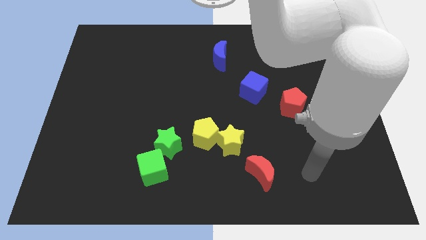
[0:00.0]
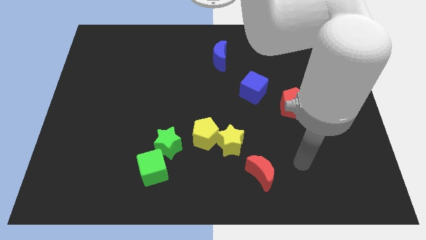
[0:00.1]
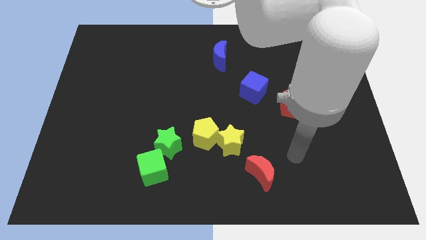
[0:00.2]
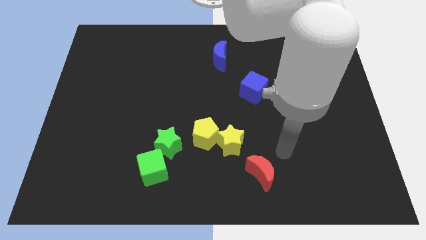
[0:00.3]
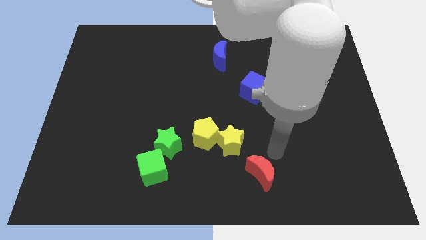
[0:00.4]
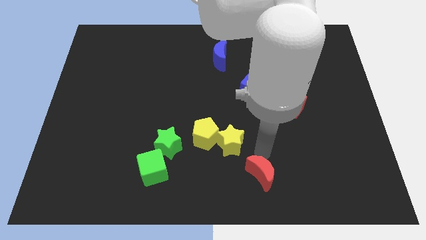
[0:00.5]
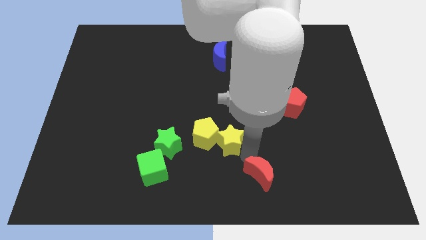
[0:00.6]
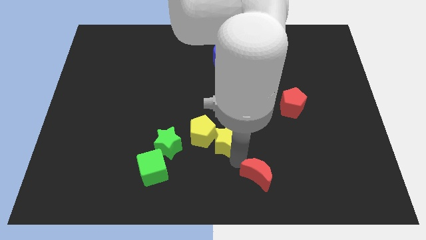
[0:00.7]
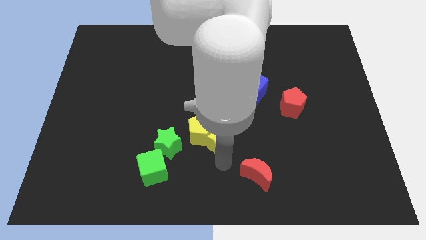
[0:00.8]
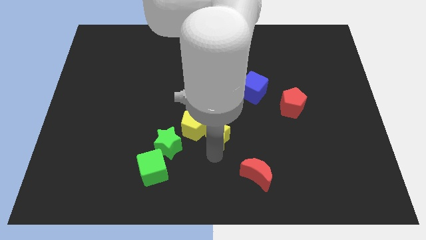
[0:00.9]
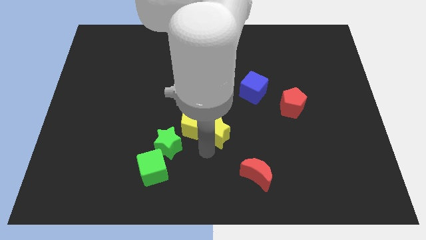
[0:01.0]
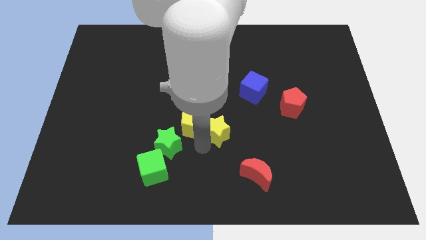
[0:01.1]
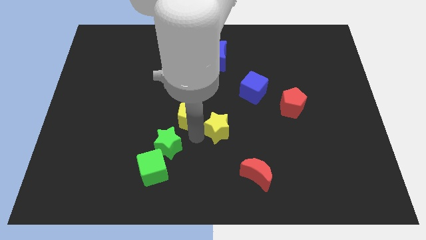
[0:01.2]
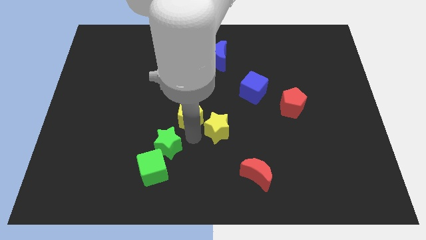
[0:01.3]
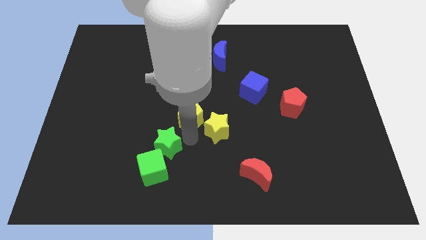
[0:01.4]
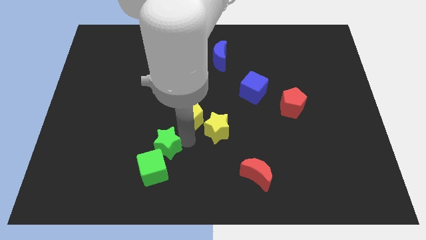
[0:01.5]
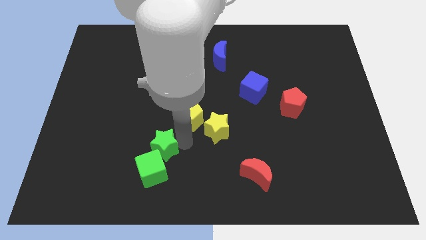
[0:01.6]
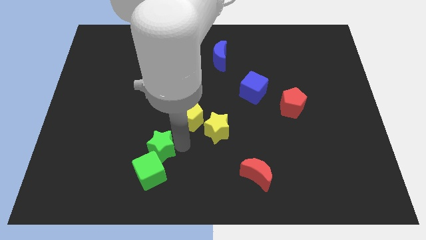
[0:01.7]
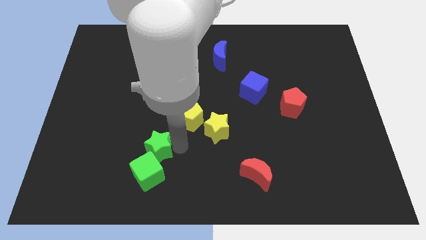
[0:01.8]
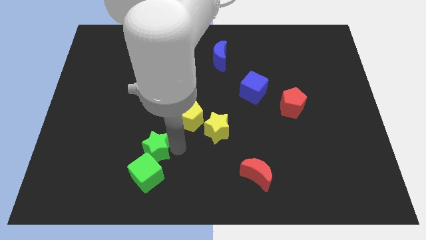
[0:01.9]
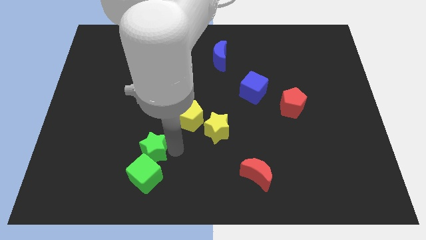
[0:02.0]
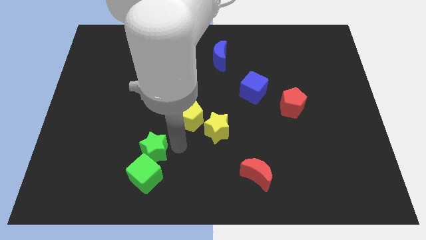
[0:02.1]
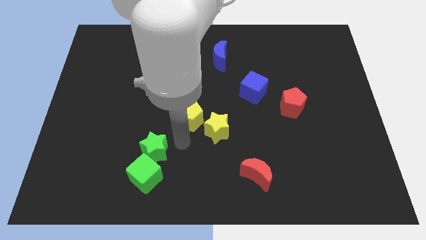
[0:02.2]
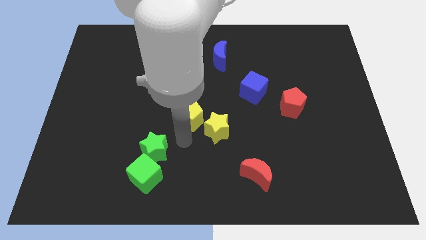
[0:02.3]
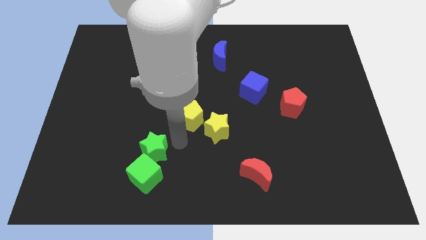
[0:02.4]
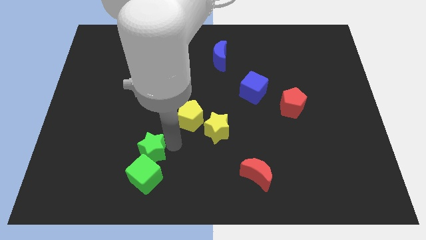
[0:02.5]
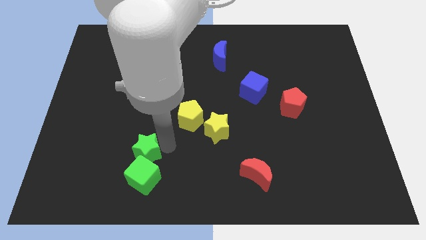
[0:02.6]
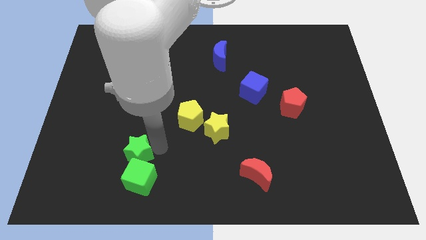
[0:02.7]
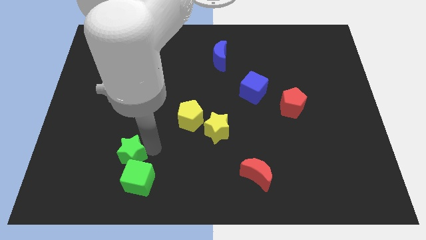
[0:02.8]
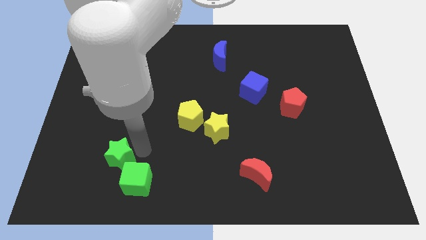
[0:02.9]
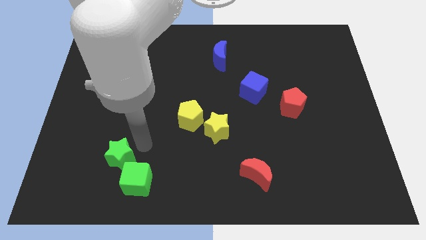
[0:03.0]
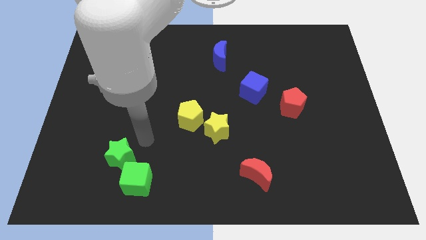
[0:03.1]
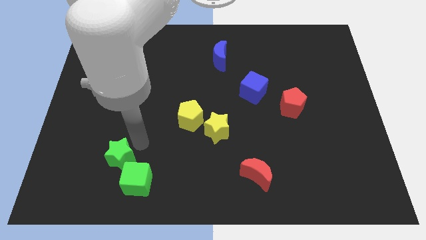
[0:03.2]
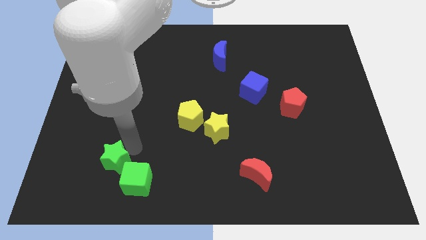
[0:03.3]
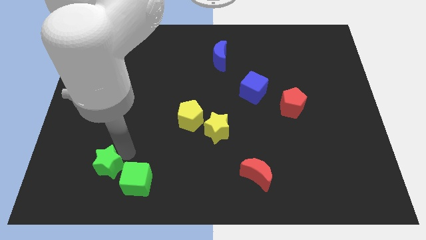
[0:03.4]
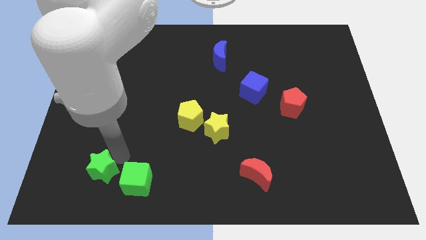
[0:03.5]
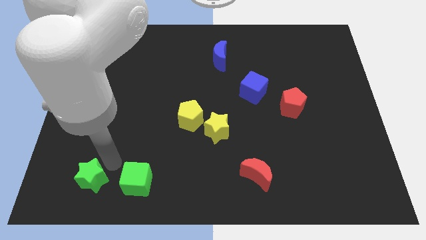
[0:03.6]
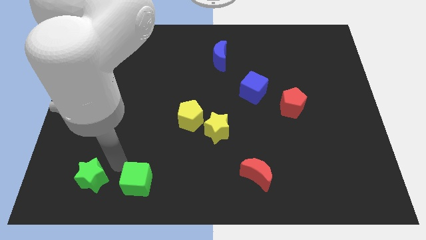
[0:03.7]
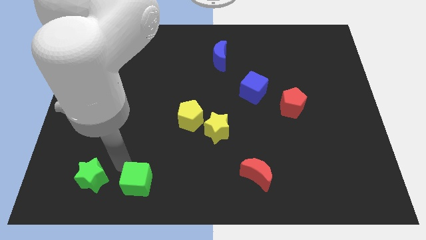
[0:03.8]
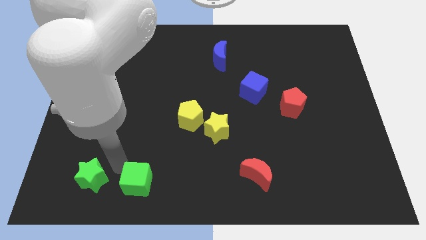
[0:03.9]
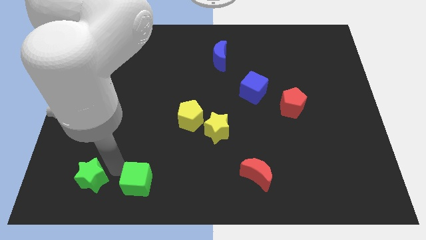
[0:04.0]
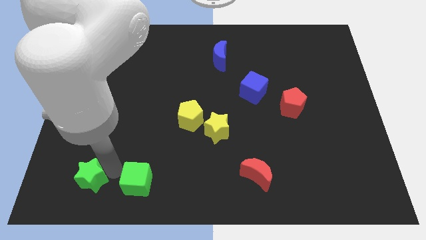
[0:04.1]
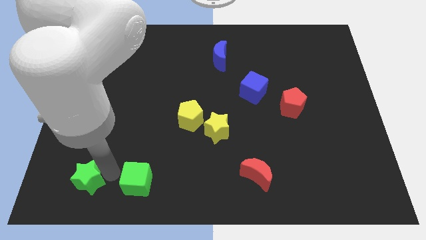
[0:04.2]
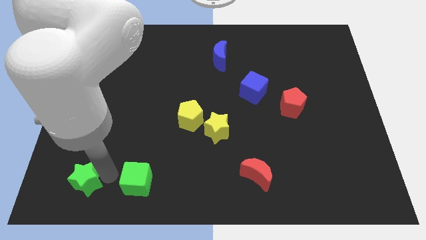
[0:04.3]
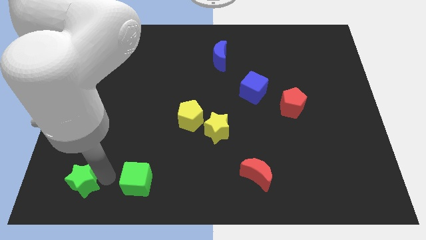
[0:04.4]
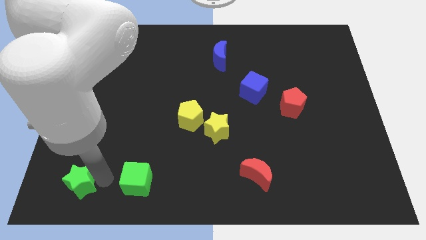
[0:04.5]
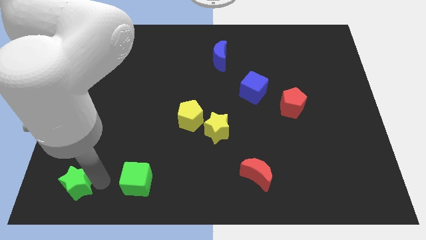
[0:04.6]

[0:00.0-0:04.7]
push the green star to the bottom left

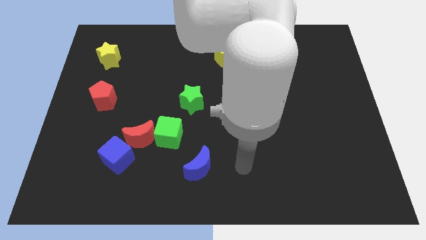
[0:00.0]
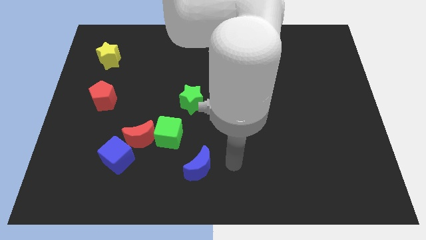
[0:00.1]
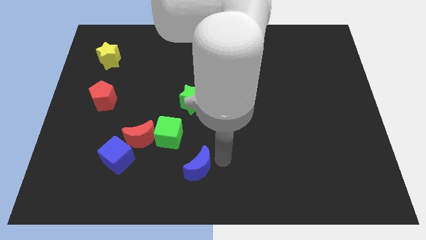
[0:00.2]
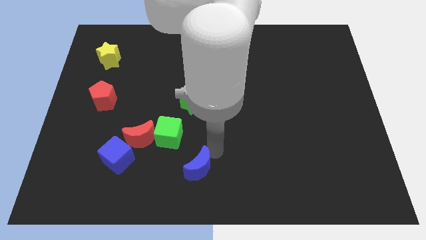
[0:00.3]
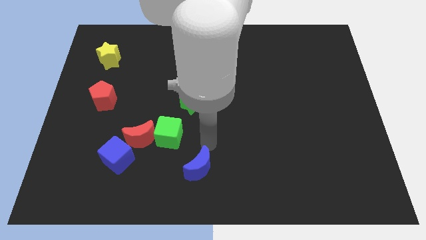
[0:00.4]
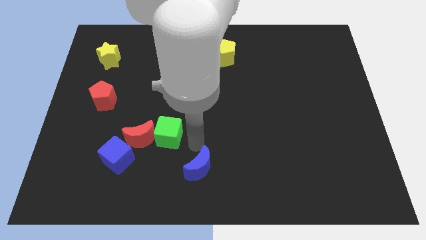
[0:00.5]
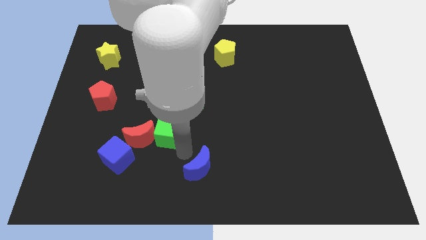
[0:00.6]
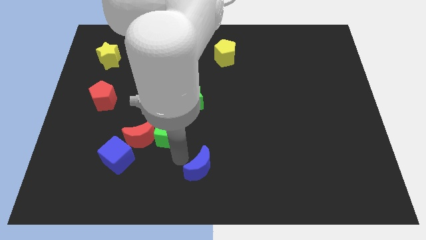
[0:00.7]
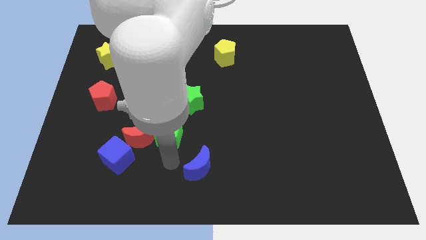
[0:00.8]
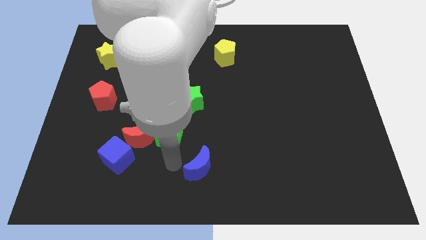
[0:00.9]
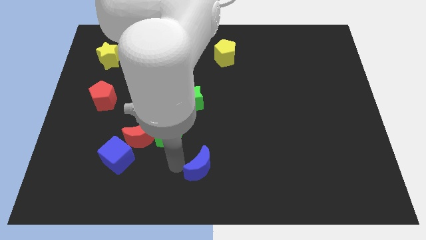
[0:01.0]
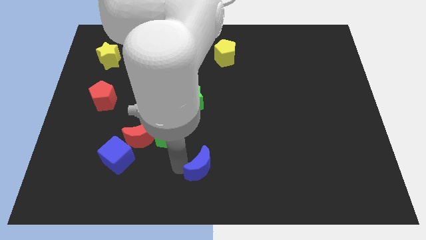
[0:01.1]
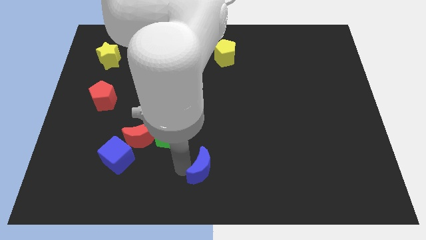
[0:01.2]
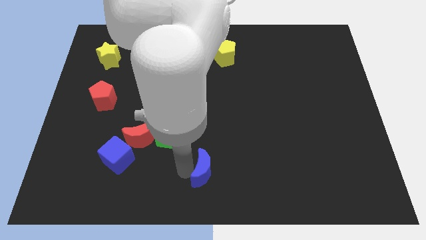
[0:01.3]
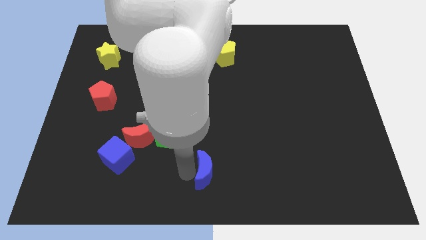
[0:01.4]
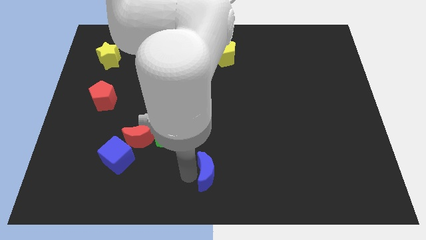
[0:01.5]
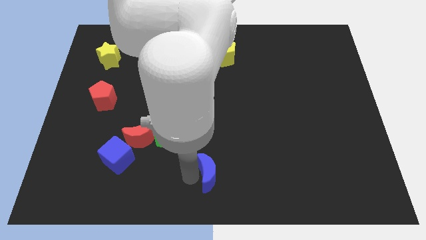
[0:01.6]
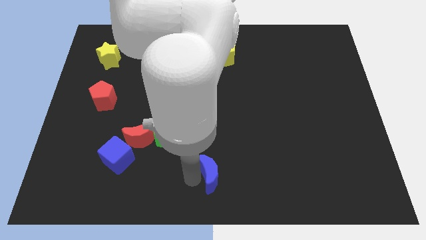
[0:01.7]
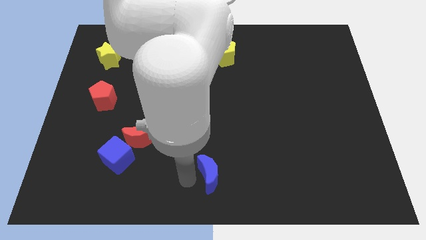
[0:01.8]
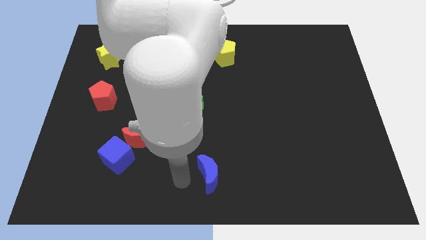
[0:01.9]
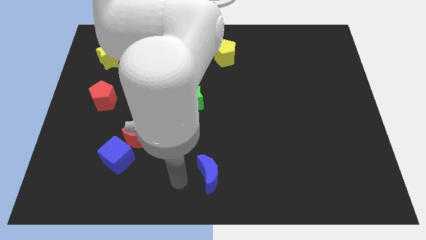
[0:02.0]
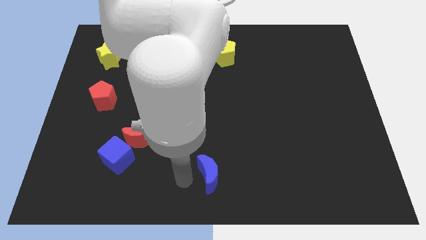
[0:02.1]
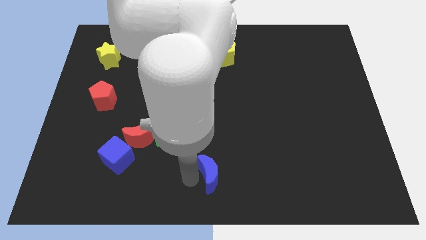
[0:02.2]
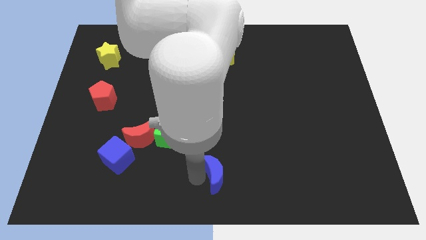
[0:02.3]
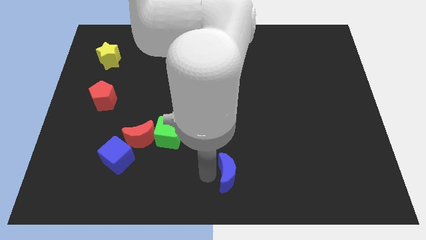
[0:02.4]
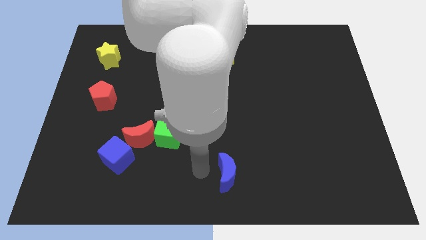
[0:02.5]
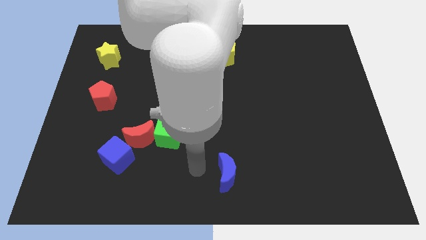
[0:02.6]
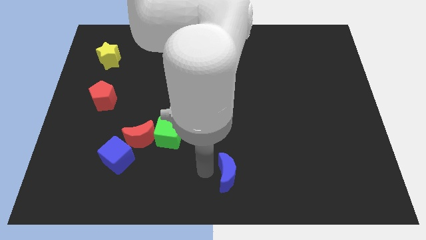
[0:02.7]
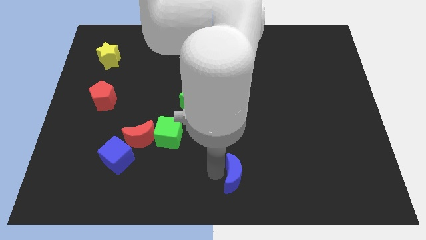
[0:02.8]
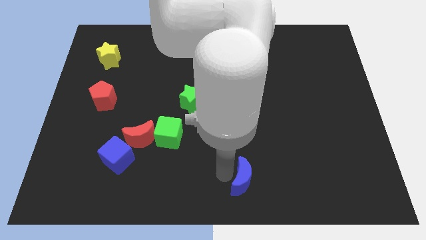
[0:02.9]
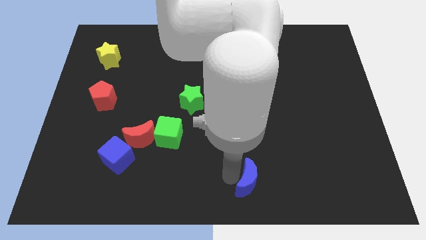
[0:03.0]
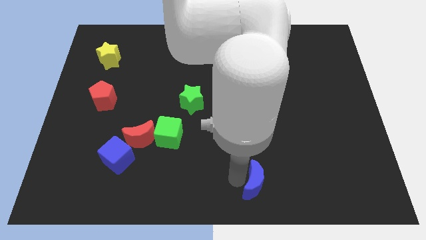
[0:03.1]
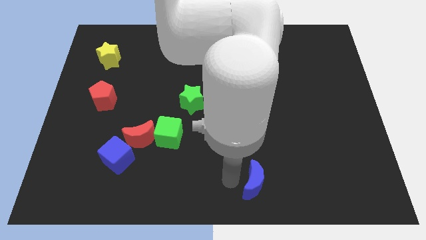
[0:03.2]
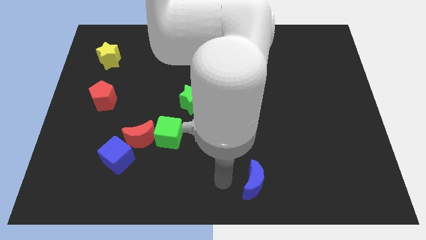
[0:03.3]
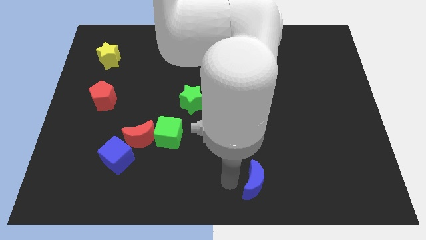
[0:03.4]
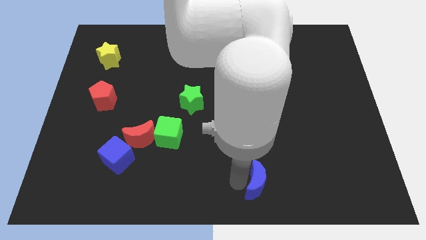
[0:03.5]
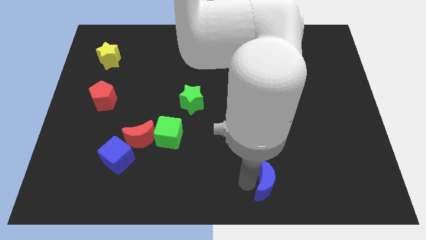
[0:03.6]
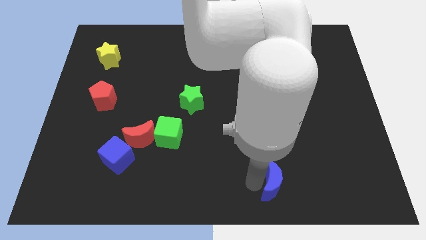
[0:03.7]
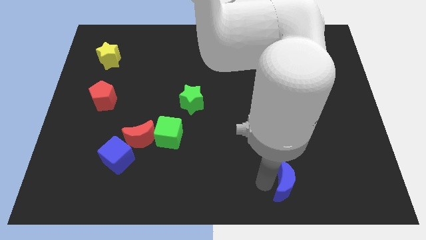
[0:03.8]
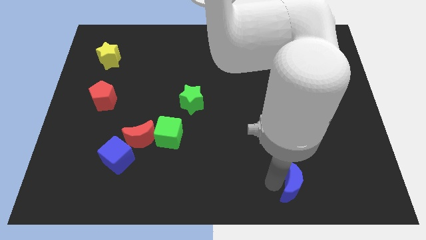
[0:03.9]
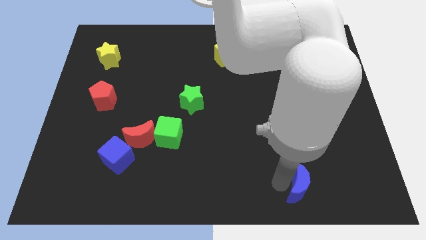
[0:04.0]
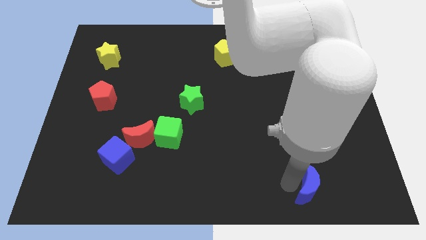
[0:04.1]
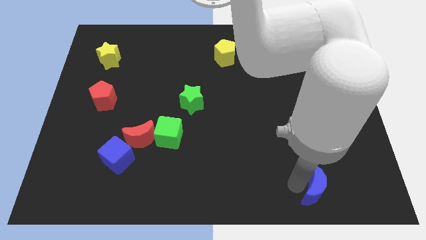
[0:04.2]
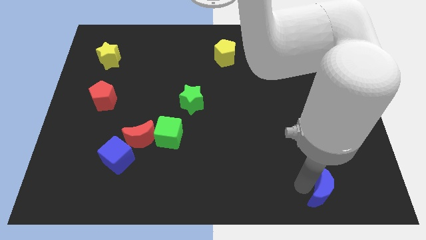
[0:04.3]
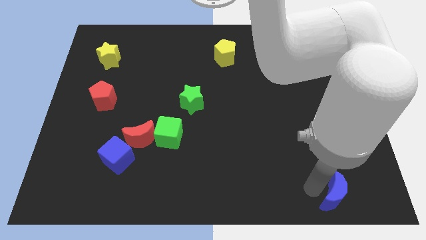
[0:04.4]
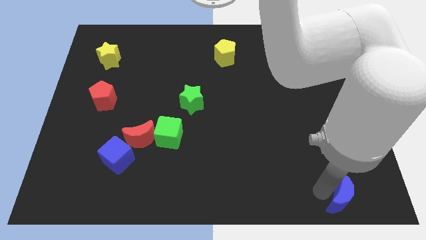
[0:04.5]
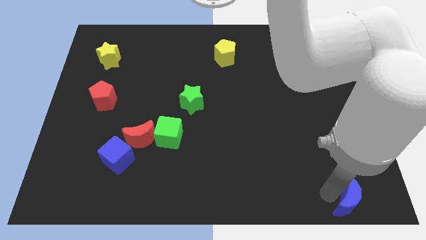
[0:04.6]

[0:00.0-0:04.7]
push the blue moon to the lower right corner
